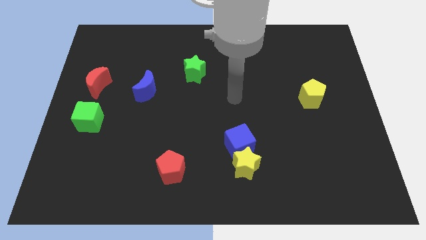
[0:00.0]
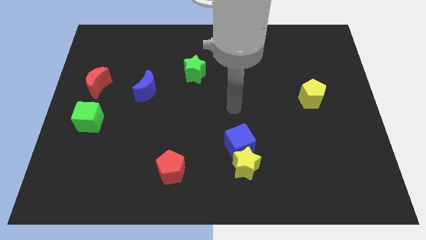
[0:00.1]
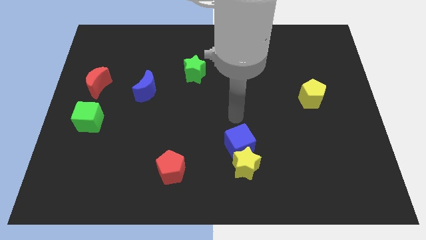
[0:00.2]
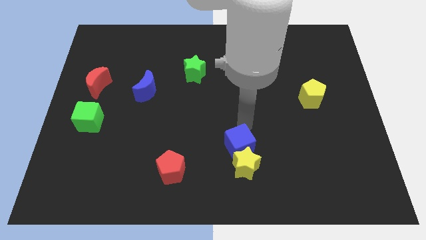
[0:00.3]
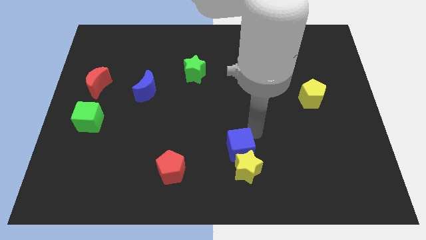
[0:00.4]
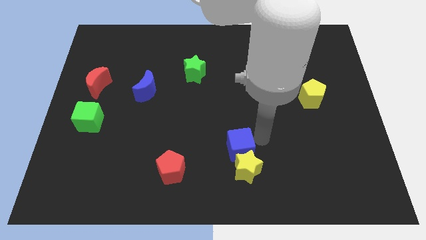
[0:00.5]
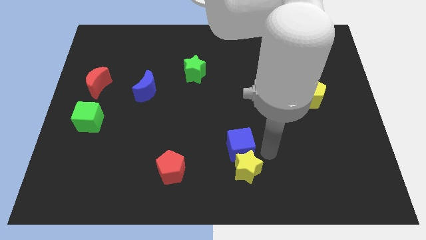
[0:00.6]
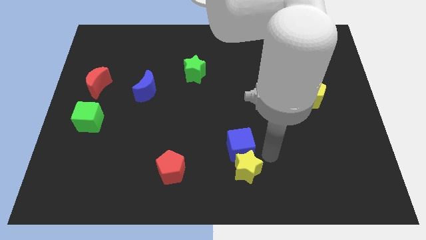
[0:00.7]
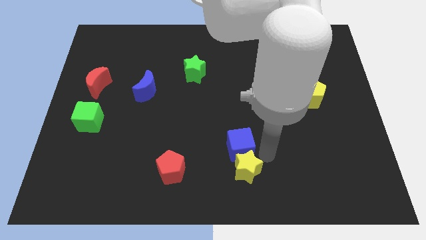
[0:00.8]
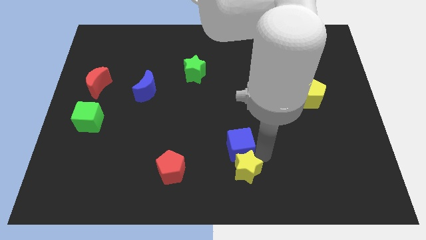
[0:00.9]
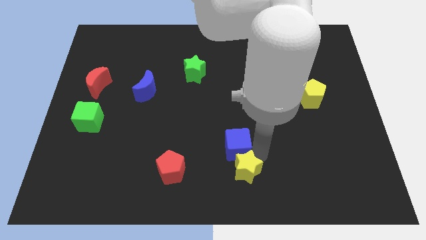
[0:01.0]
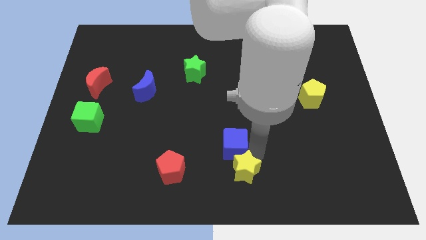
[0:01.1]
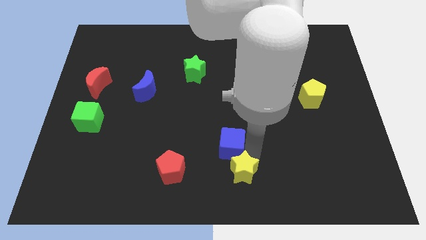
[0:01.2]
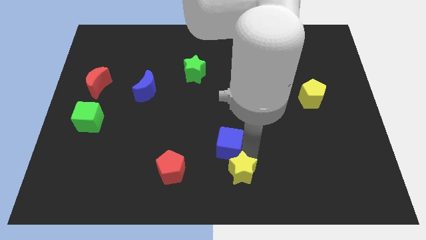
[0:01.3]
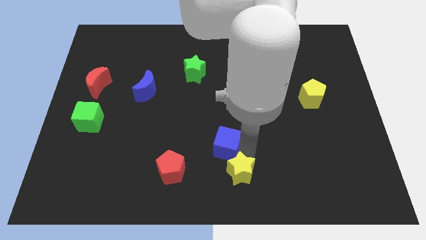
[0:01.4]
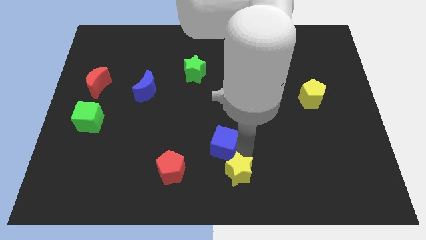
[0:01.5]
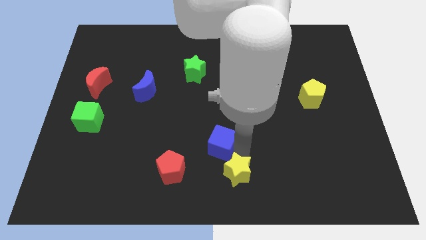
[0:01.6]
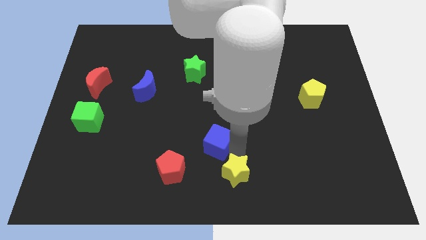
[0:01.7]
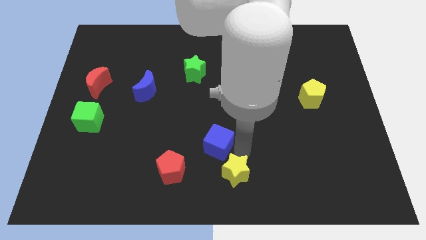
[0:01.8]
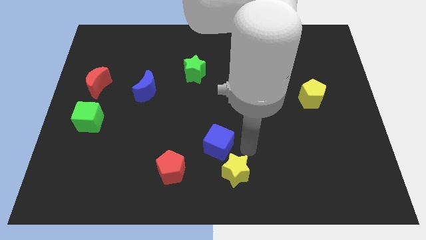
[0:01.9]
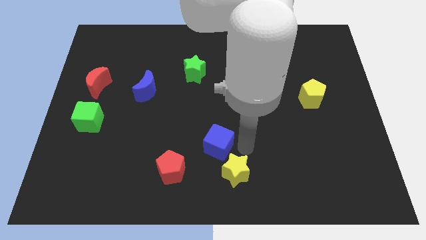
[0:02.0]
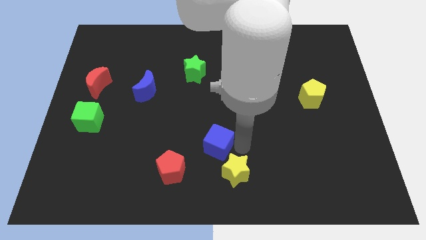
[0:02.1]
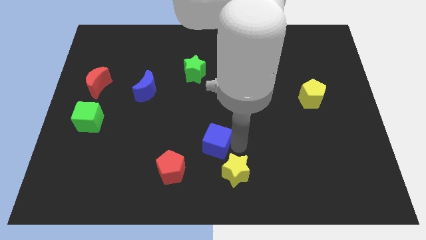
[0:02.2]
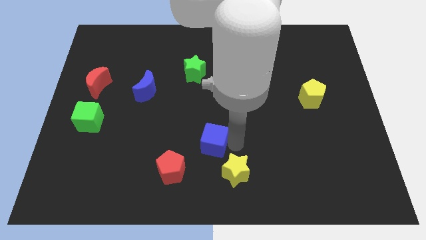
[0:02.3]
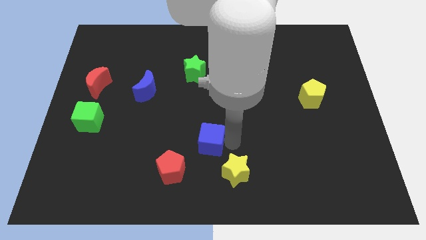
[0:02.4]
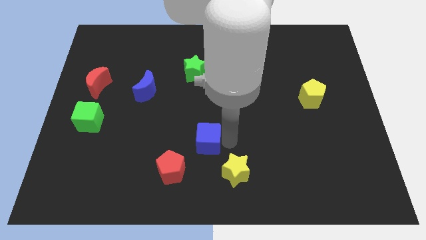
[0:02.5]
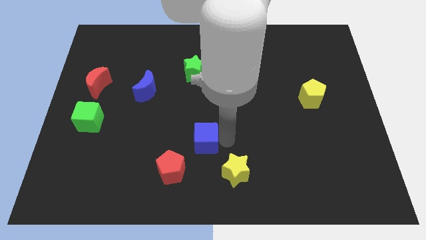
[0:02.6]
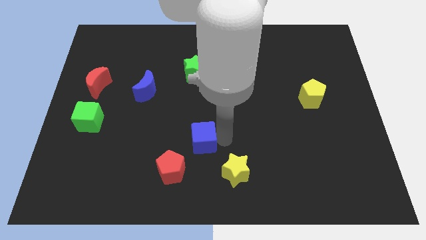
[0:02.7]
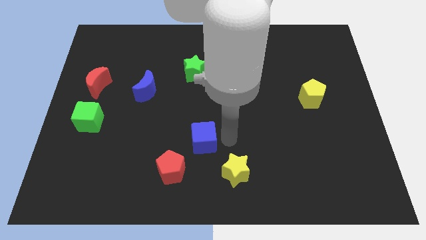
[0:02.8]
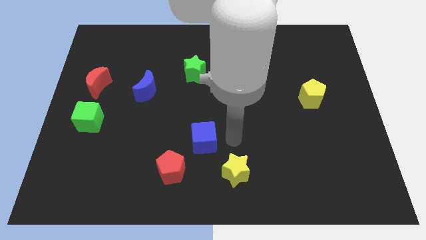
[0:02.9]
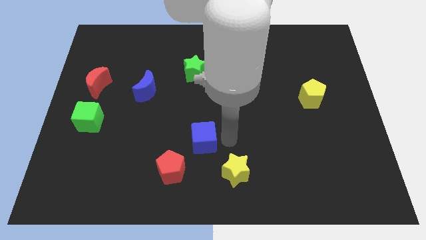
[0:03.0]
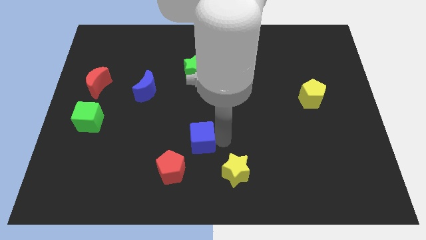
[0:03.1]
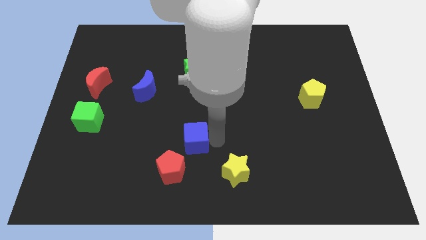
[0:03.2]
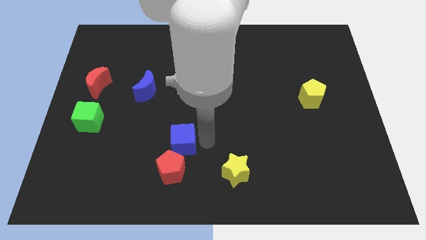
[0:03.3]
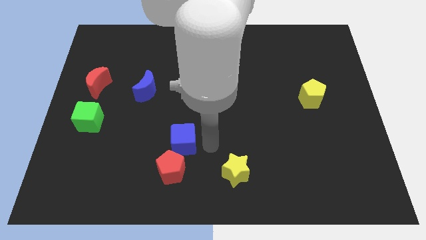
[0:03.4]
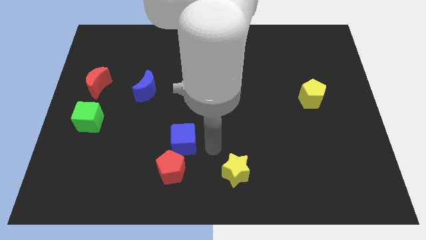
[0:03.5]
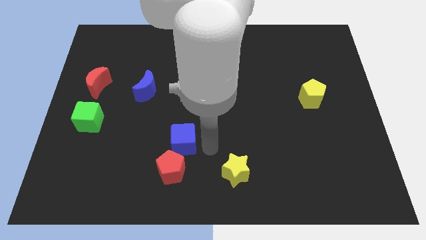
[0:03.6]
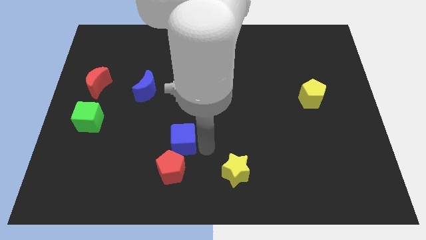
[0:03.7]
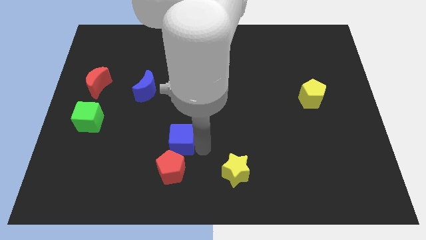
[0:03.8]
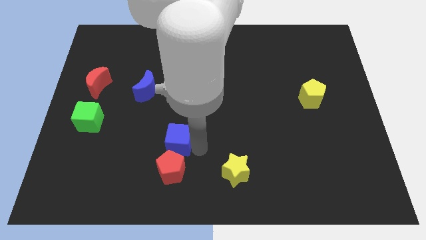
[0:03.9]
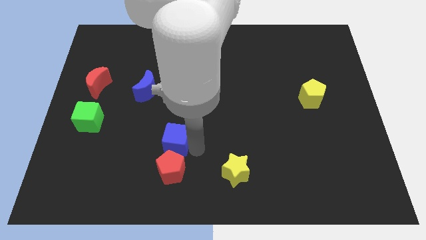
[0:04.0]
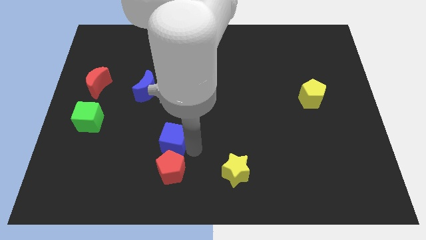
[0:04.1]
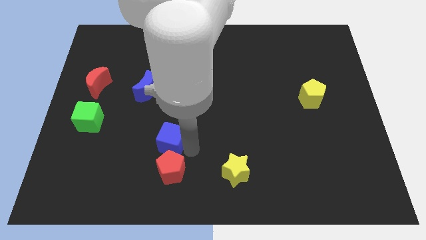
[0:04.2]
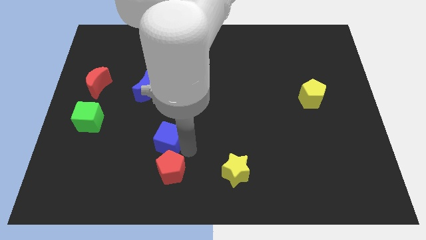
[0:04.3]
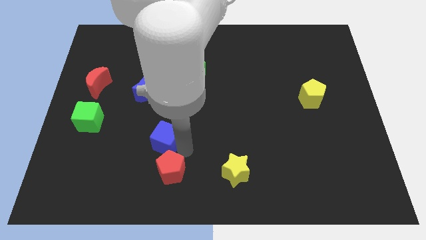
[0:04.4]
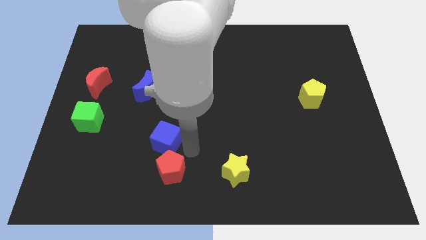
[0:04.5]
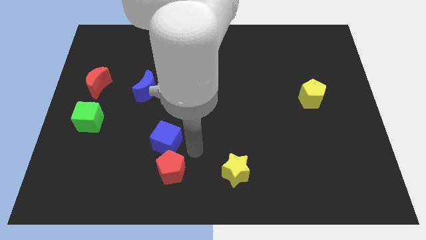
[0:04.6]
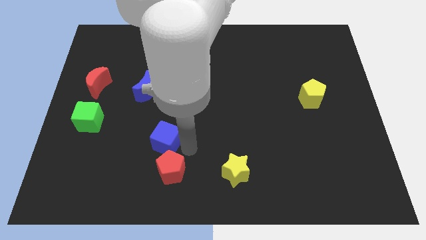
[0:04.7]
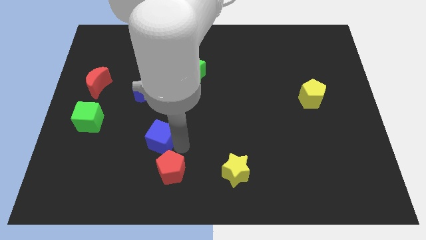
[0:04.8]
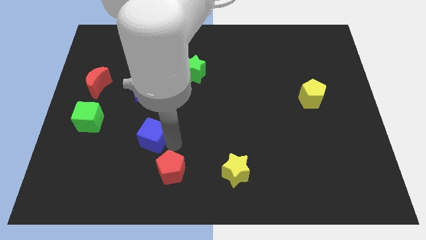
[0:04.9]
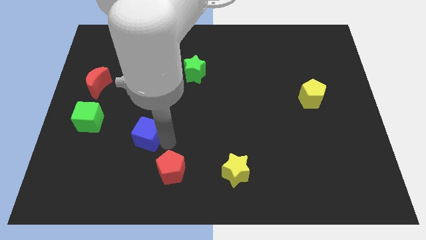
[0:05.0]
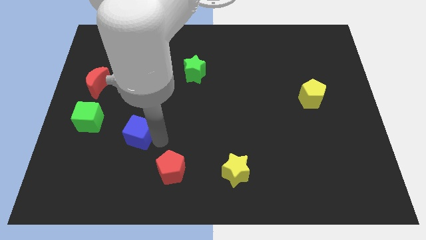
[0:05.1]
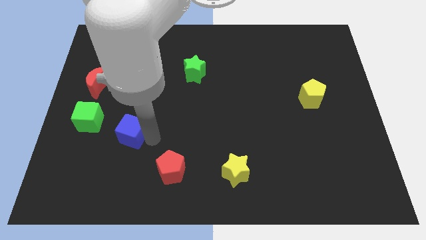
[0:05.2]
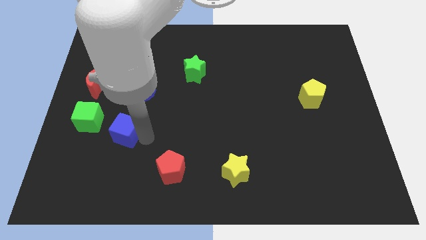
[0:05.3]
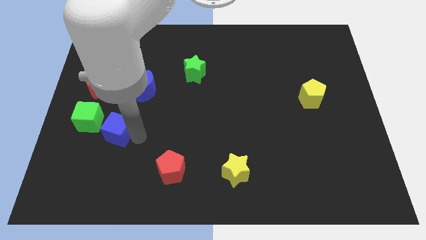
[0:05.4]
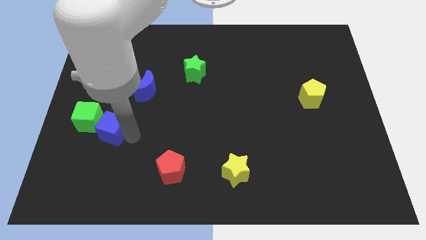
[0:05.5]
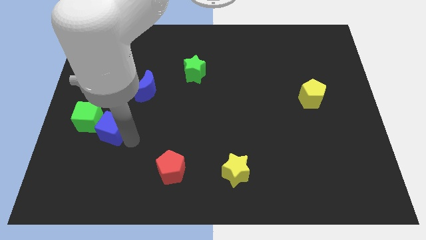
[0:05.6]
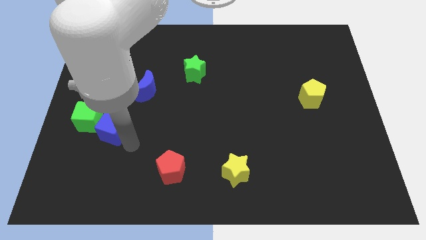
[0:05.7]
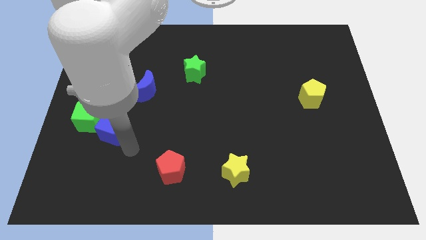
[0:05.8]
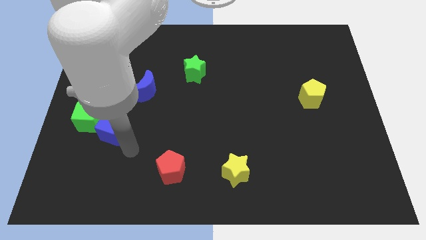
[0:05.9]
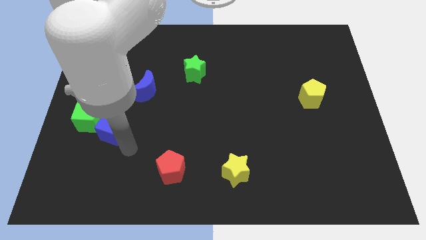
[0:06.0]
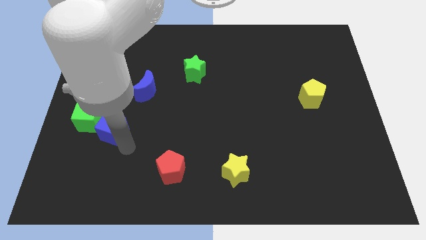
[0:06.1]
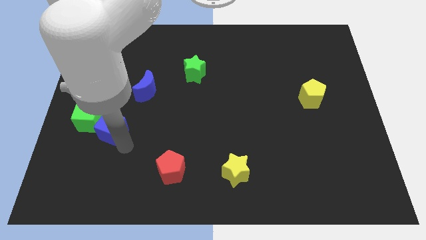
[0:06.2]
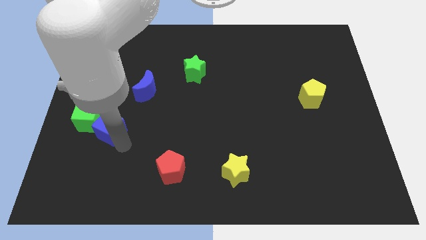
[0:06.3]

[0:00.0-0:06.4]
slide the blue cube close to the green cube

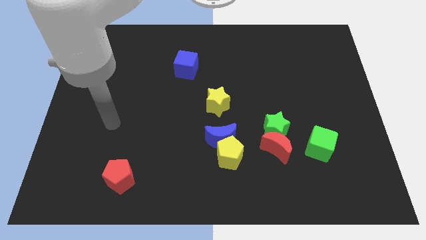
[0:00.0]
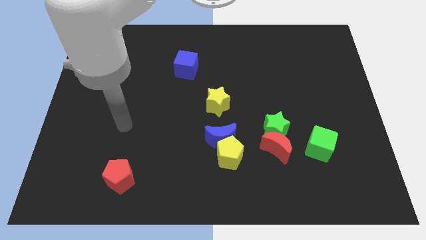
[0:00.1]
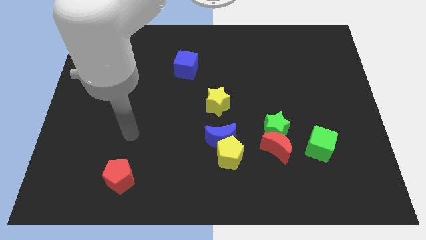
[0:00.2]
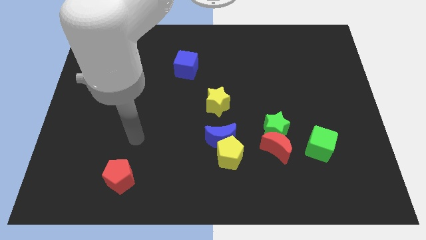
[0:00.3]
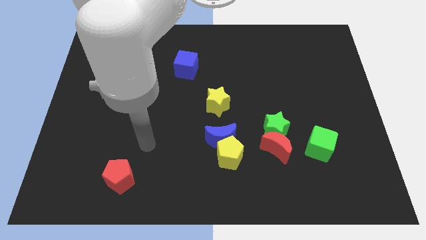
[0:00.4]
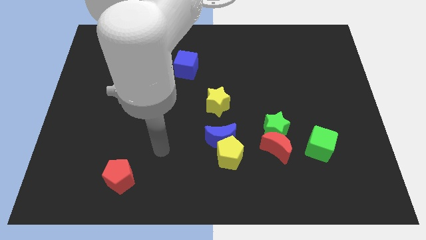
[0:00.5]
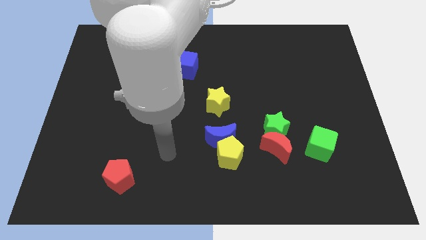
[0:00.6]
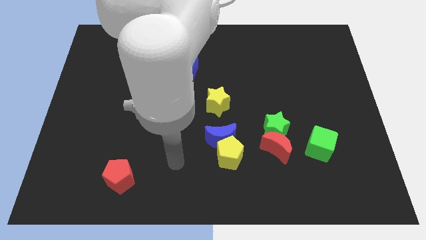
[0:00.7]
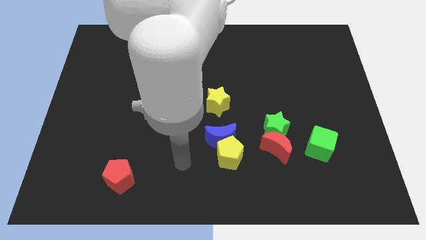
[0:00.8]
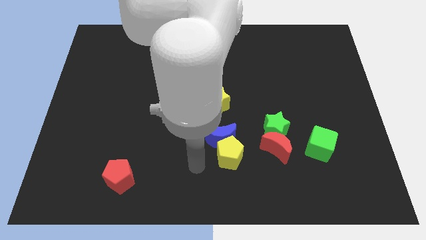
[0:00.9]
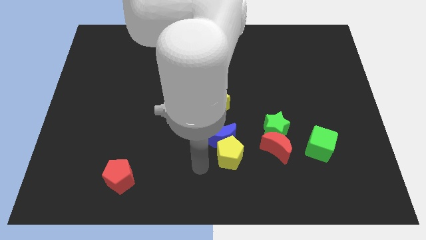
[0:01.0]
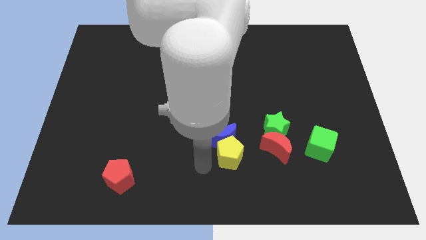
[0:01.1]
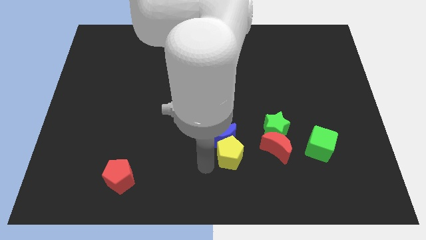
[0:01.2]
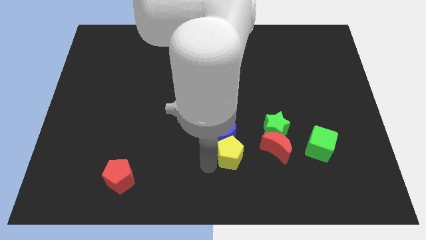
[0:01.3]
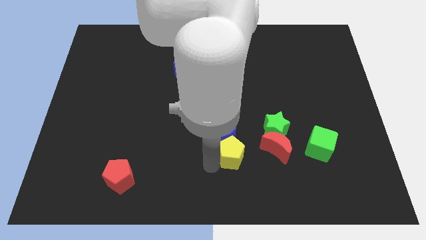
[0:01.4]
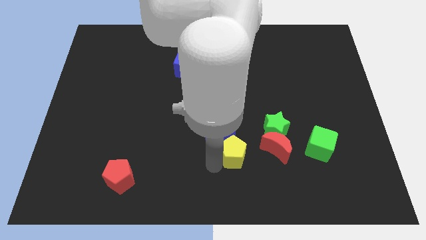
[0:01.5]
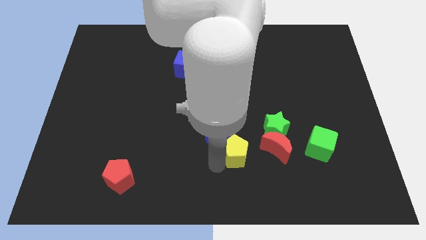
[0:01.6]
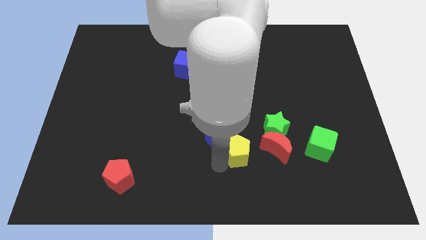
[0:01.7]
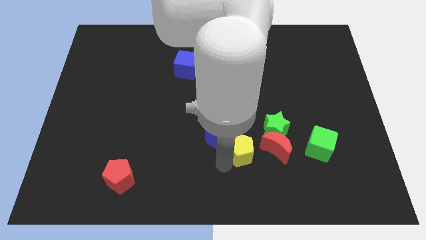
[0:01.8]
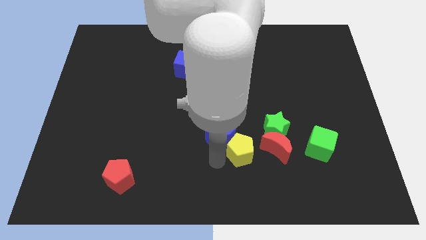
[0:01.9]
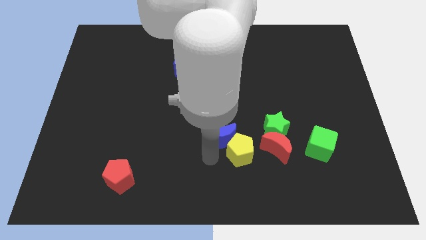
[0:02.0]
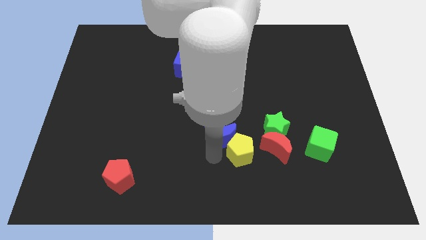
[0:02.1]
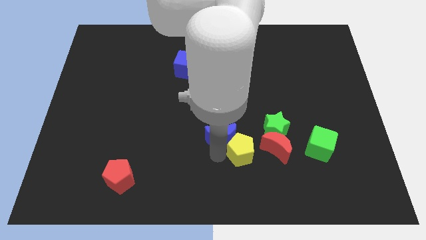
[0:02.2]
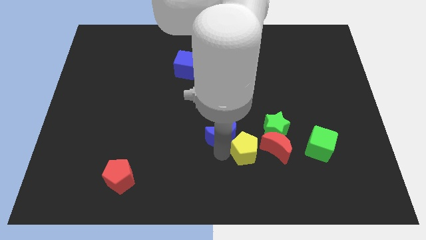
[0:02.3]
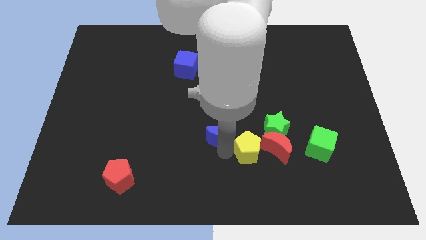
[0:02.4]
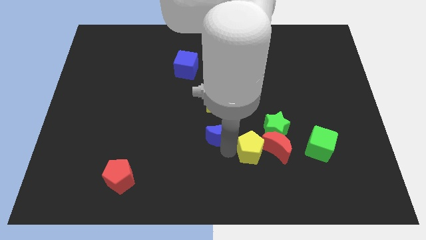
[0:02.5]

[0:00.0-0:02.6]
put the yellow pentagon next to the red moon
